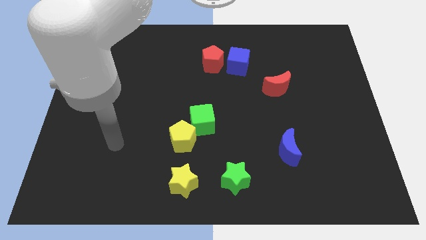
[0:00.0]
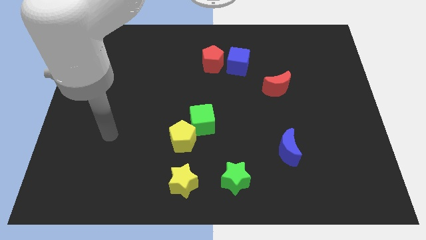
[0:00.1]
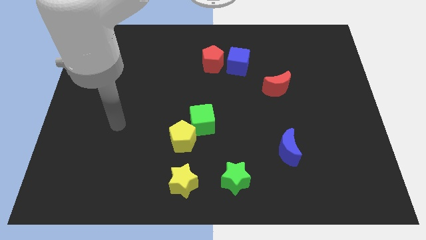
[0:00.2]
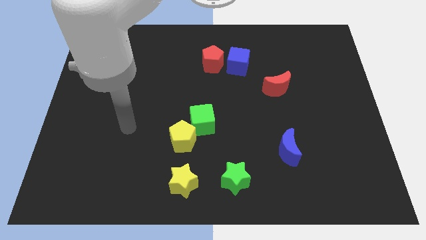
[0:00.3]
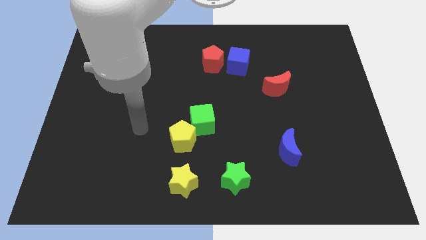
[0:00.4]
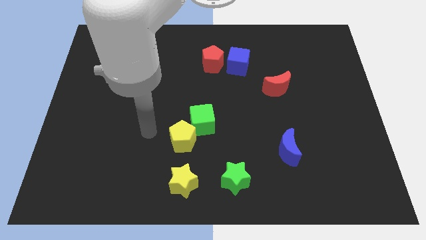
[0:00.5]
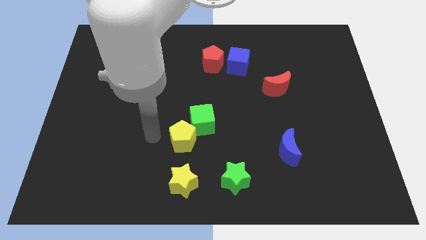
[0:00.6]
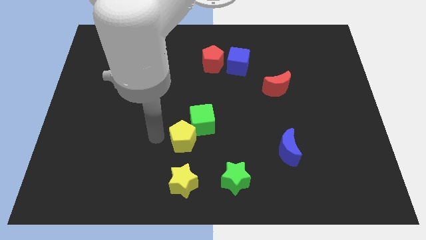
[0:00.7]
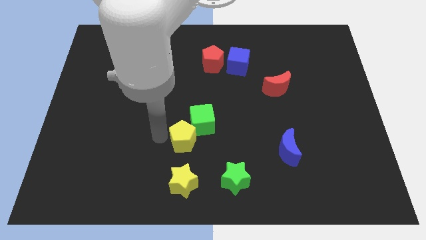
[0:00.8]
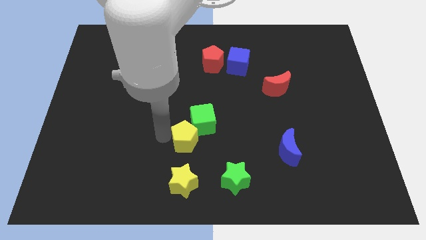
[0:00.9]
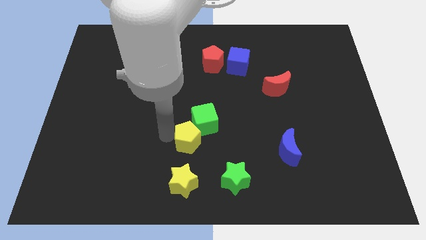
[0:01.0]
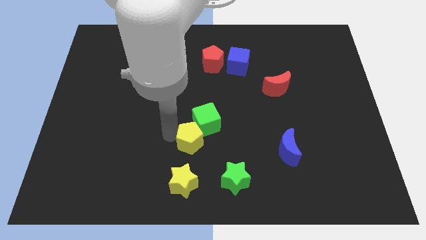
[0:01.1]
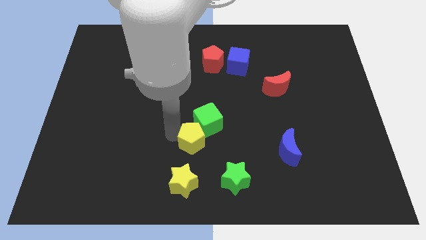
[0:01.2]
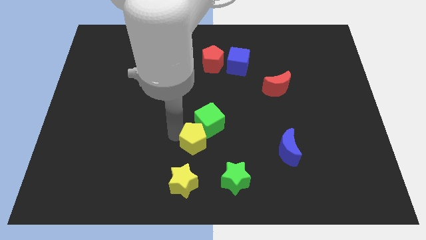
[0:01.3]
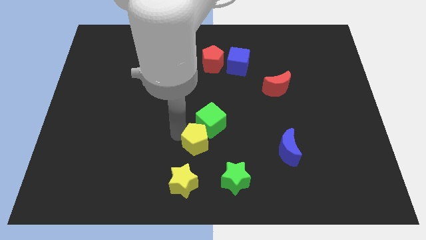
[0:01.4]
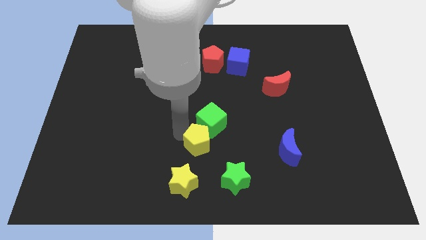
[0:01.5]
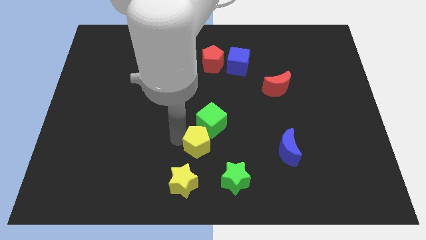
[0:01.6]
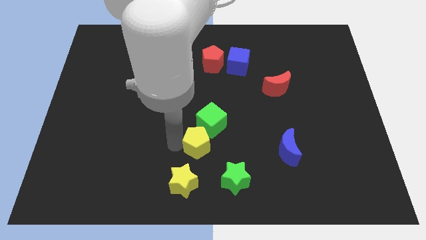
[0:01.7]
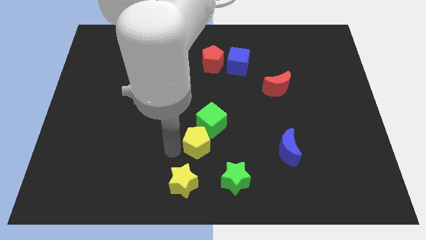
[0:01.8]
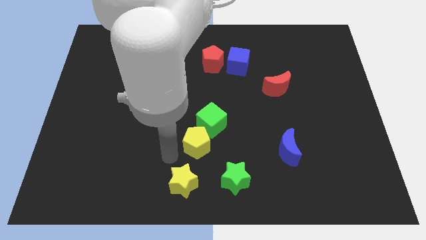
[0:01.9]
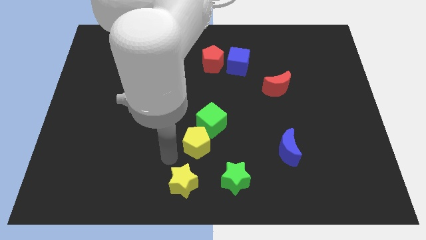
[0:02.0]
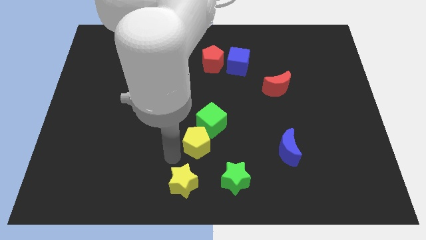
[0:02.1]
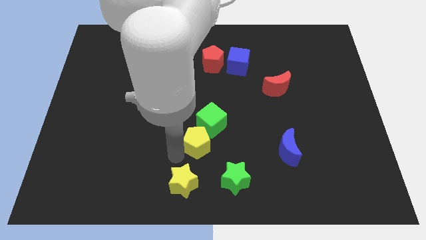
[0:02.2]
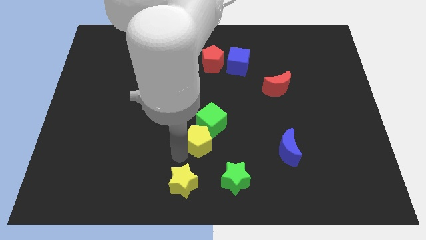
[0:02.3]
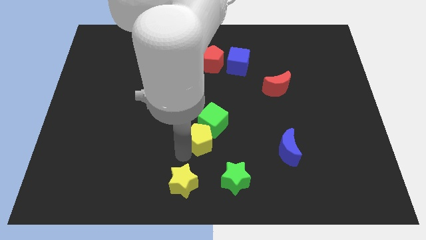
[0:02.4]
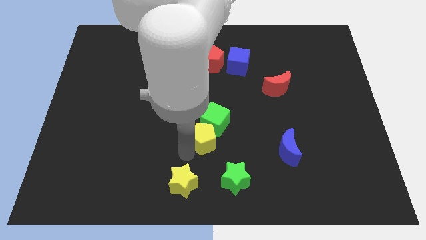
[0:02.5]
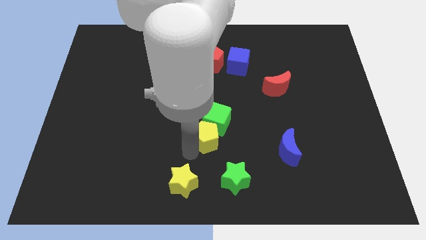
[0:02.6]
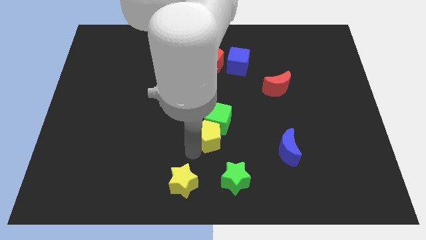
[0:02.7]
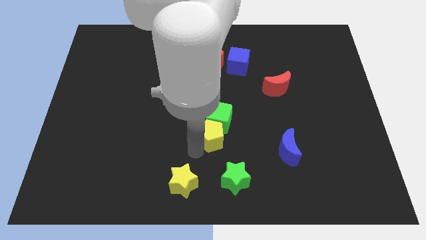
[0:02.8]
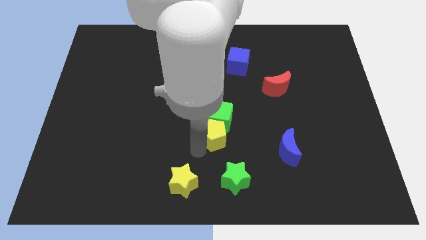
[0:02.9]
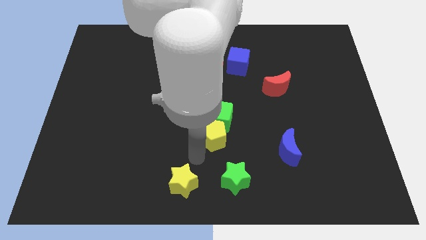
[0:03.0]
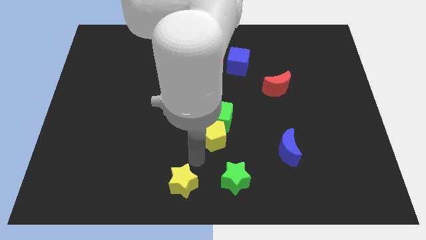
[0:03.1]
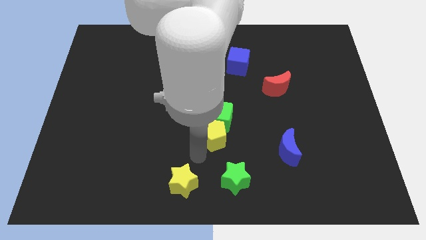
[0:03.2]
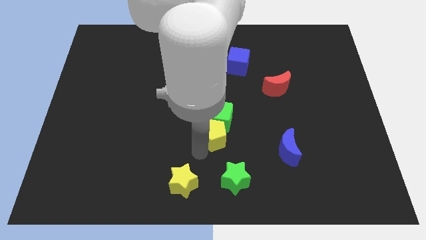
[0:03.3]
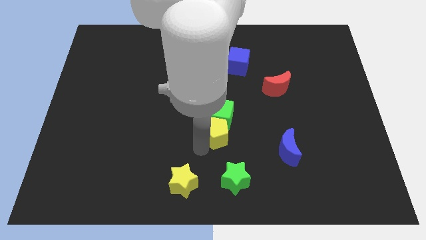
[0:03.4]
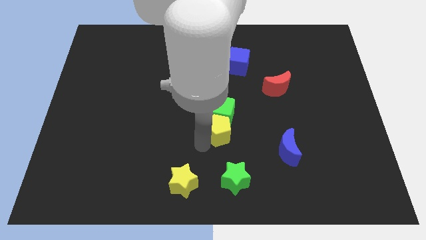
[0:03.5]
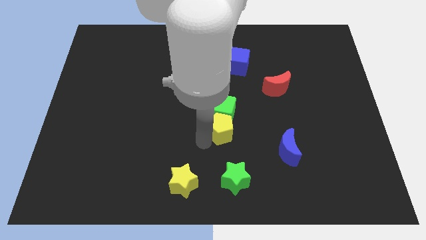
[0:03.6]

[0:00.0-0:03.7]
slightly move the yellow pentagon up and right diagonally

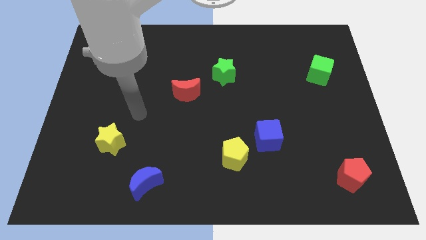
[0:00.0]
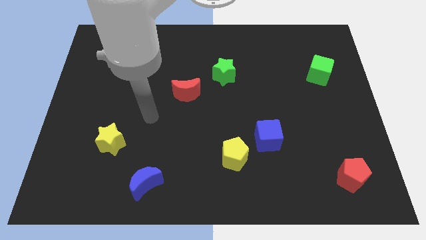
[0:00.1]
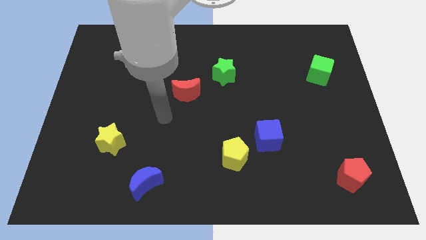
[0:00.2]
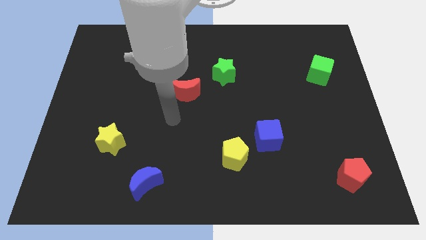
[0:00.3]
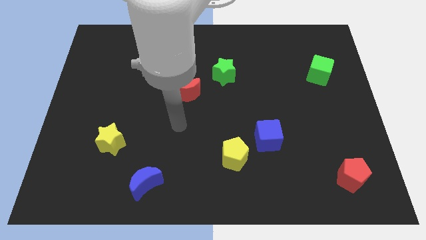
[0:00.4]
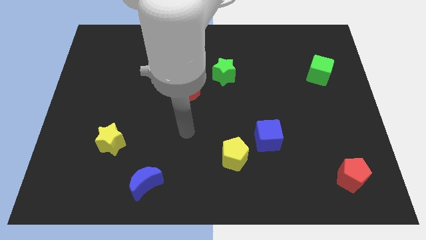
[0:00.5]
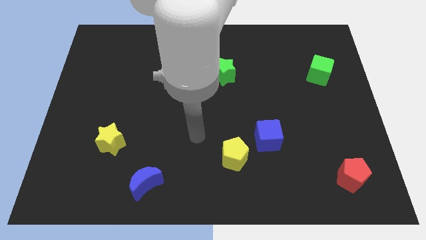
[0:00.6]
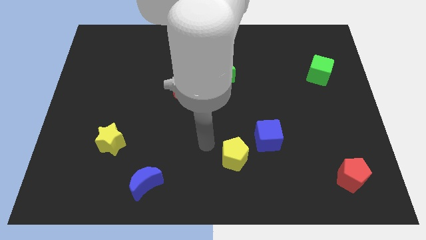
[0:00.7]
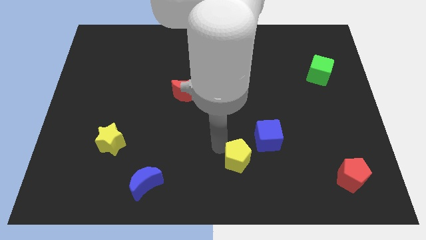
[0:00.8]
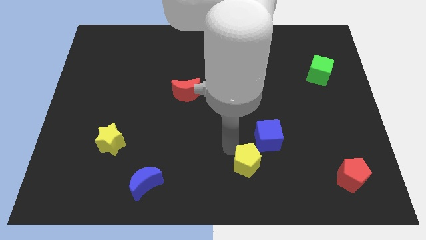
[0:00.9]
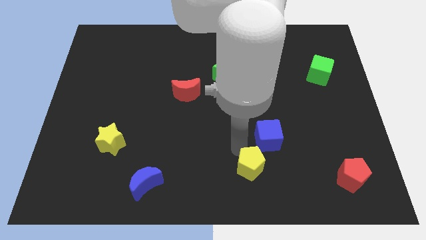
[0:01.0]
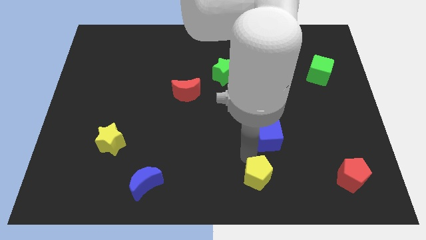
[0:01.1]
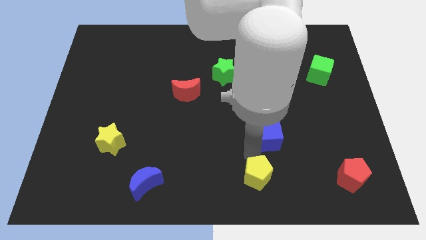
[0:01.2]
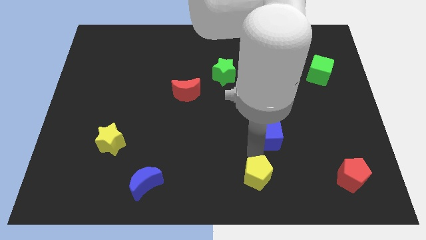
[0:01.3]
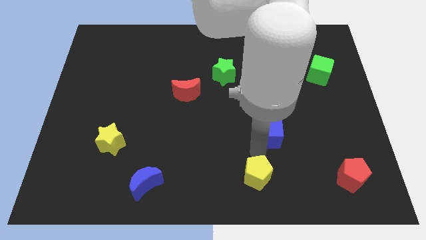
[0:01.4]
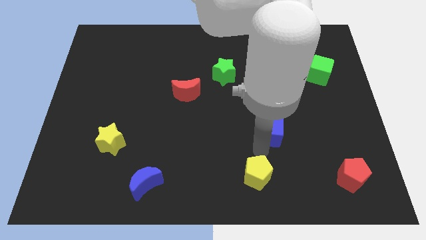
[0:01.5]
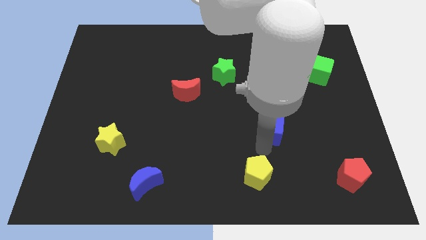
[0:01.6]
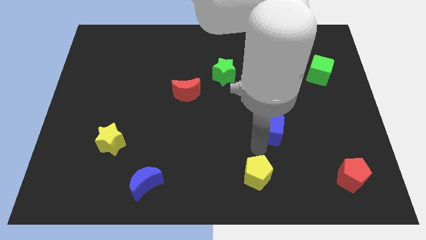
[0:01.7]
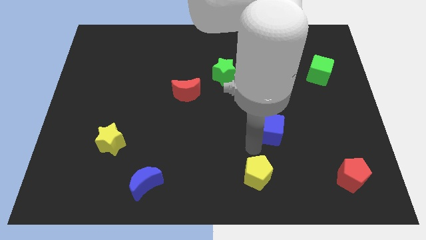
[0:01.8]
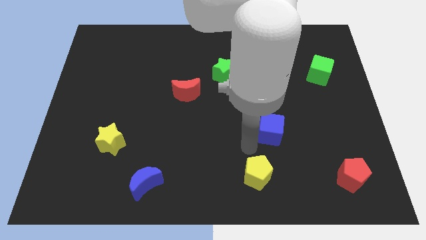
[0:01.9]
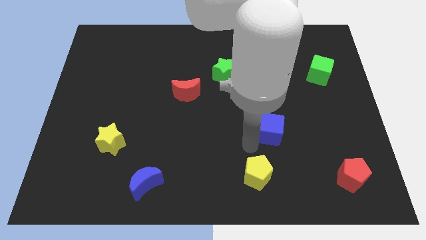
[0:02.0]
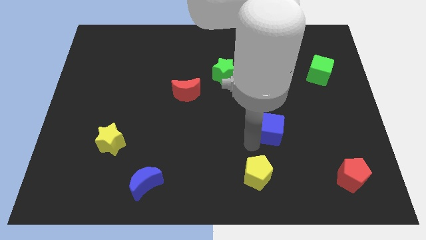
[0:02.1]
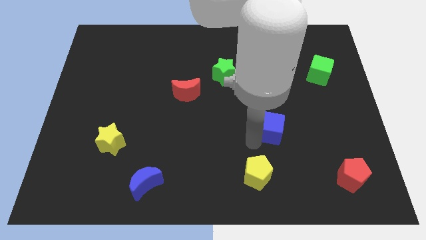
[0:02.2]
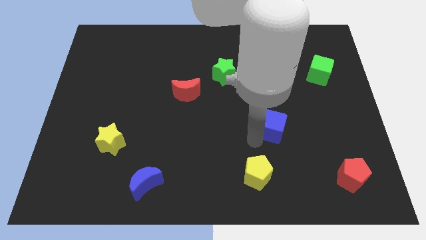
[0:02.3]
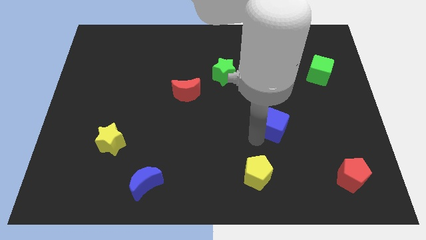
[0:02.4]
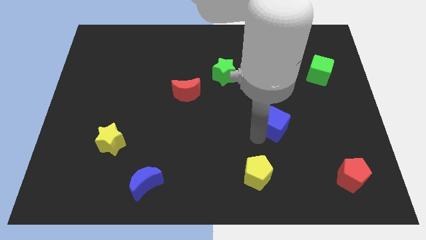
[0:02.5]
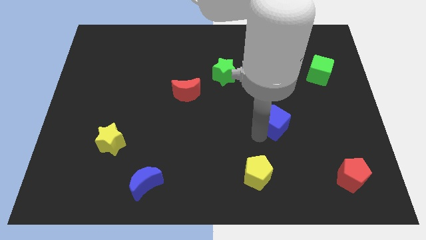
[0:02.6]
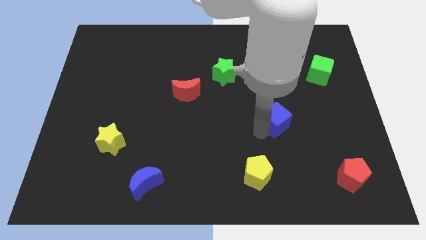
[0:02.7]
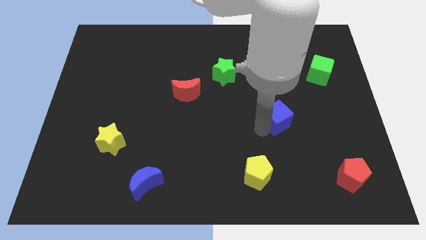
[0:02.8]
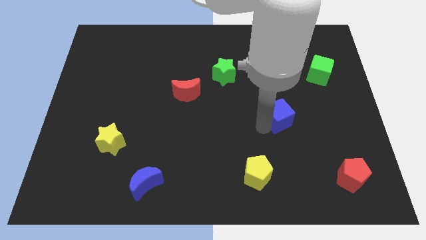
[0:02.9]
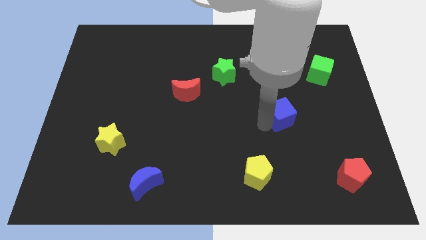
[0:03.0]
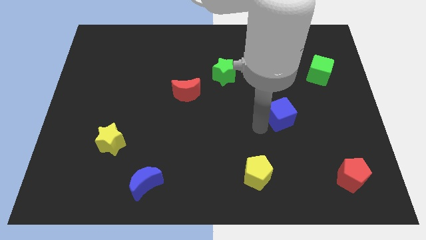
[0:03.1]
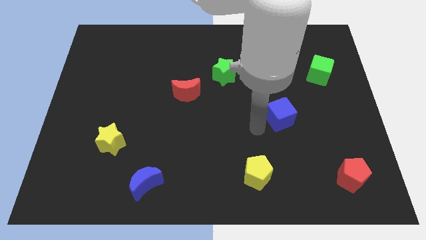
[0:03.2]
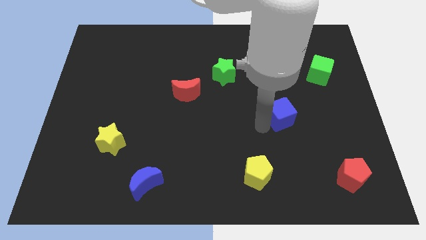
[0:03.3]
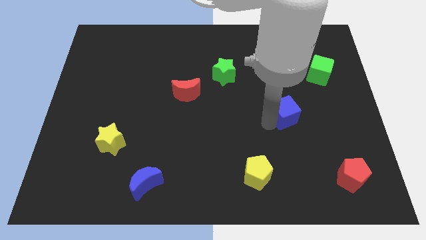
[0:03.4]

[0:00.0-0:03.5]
slide the blue cube upwards and right diagonally a little bit

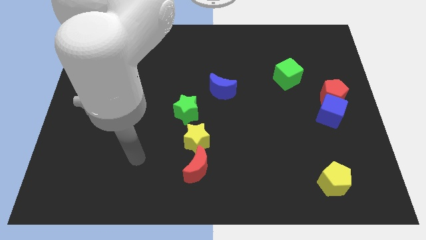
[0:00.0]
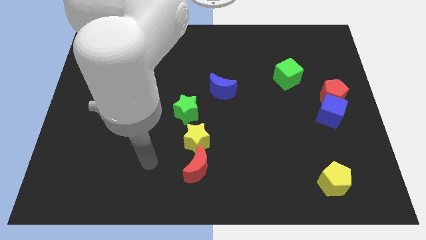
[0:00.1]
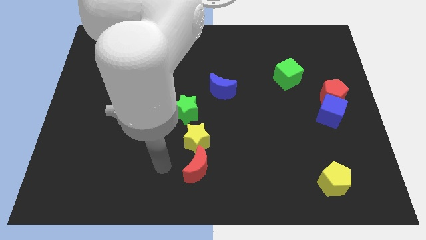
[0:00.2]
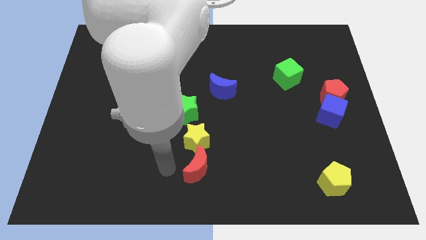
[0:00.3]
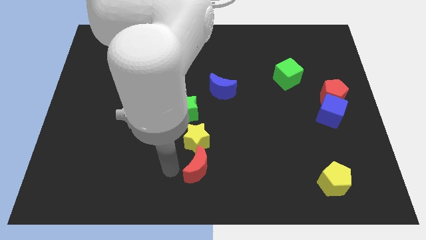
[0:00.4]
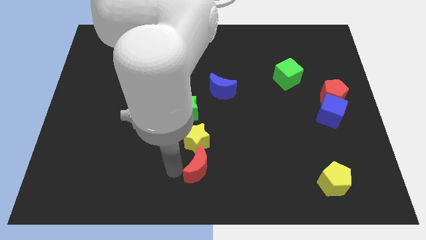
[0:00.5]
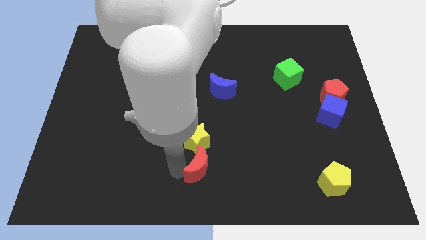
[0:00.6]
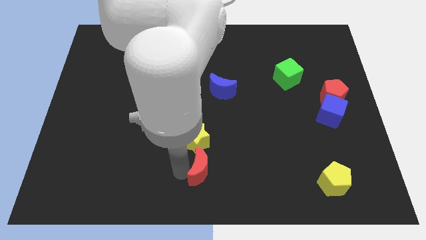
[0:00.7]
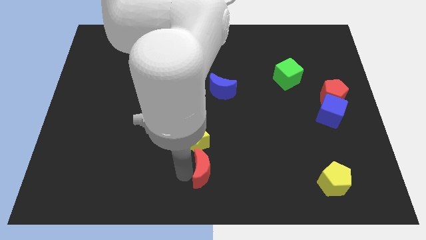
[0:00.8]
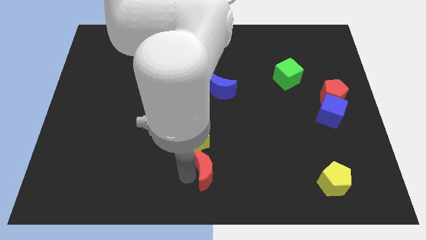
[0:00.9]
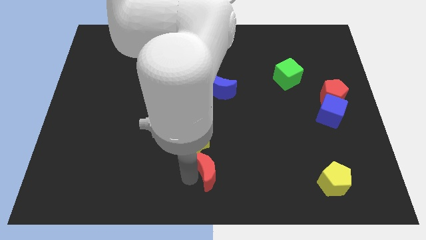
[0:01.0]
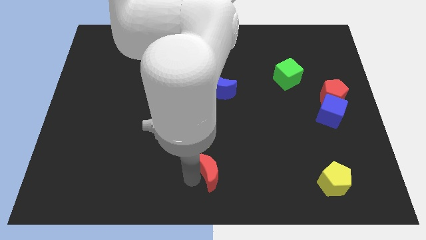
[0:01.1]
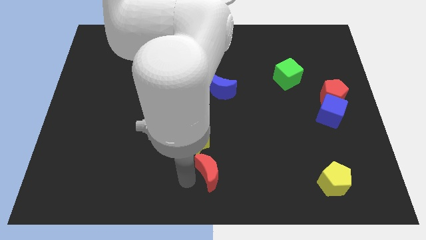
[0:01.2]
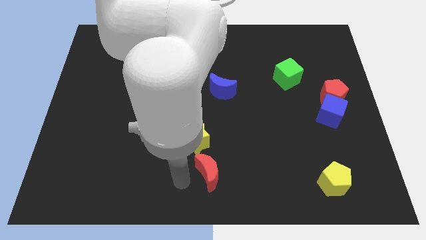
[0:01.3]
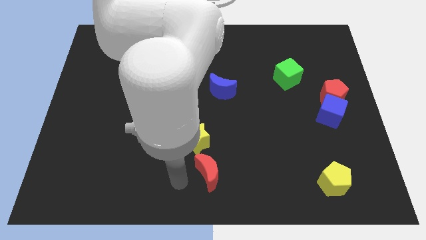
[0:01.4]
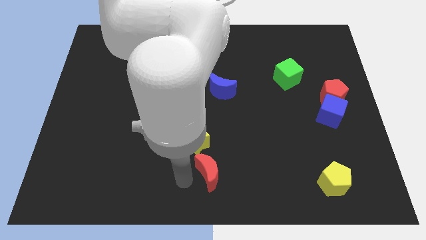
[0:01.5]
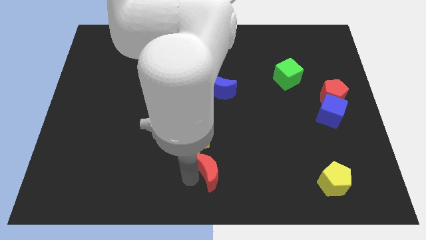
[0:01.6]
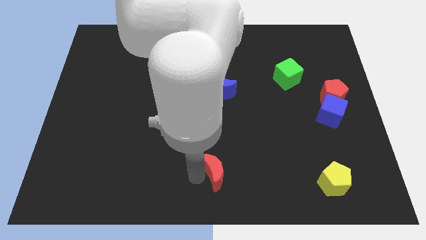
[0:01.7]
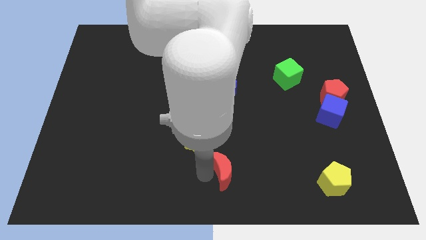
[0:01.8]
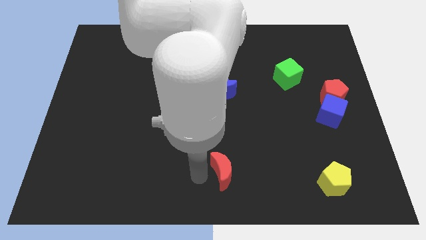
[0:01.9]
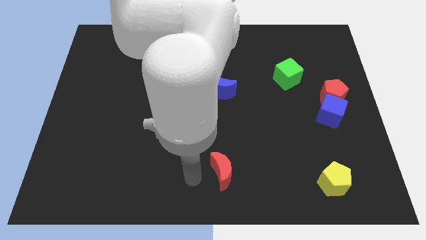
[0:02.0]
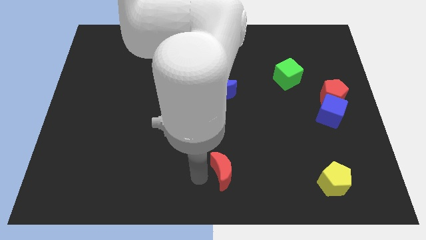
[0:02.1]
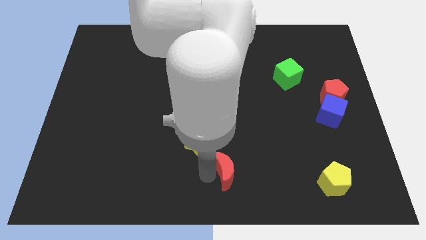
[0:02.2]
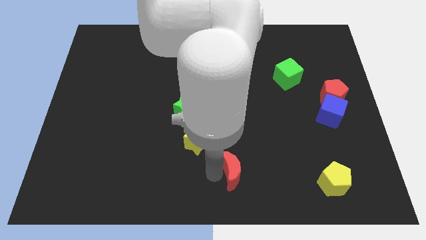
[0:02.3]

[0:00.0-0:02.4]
slide the red moon right a bit
